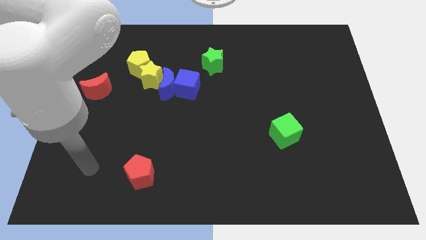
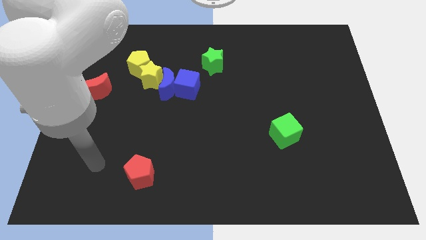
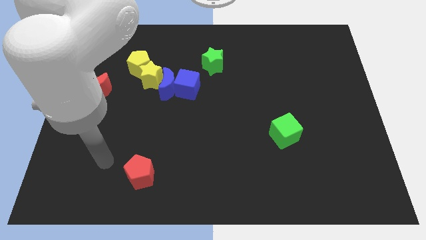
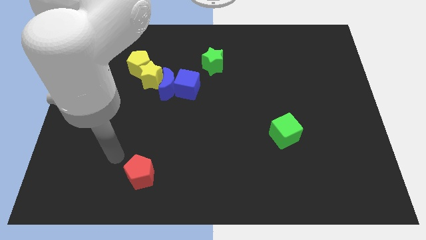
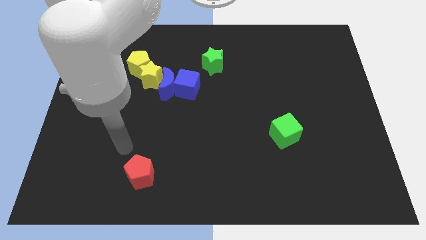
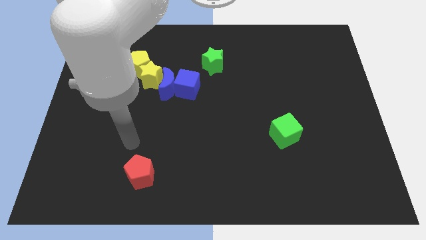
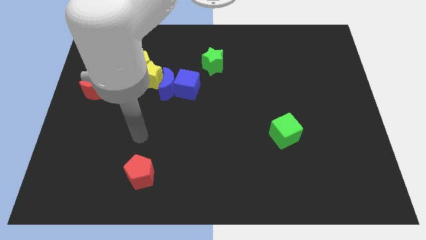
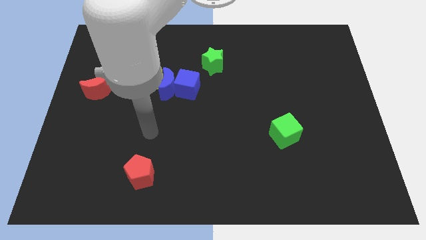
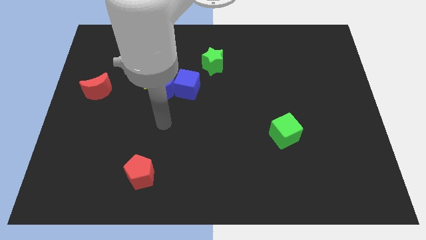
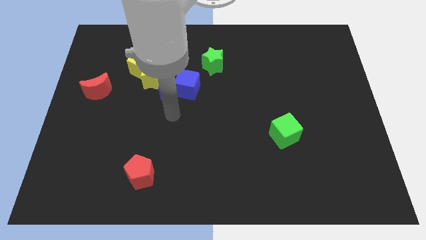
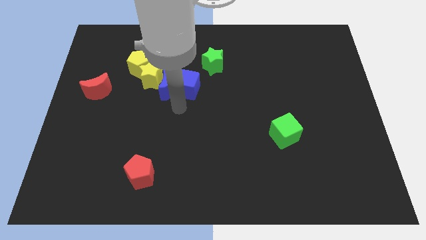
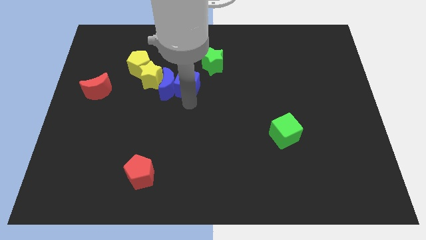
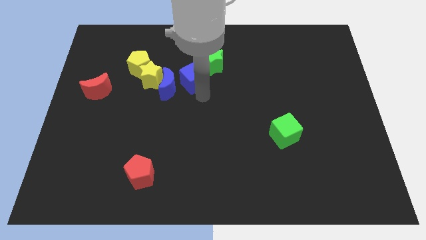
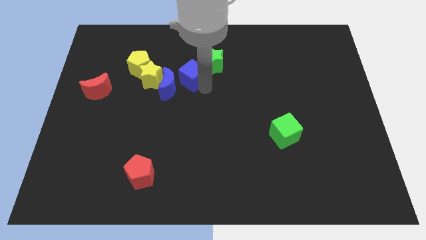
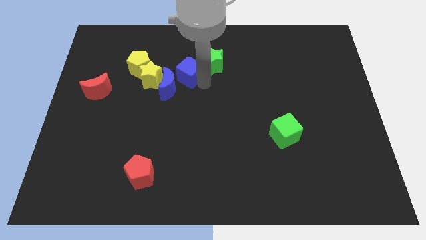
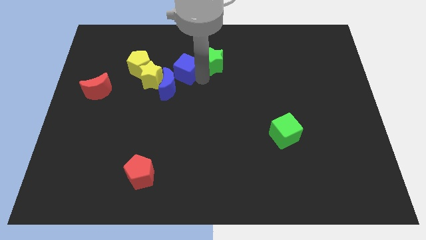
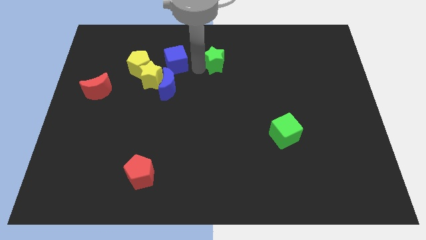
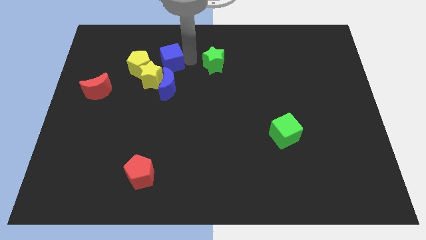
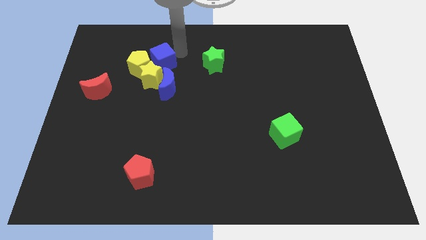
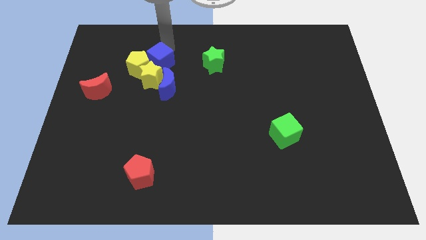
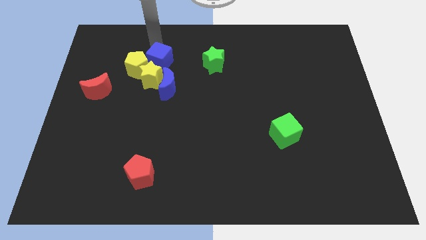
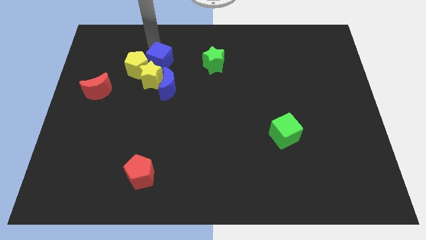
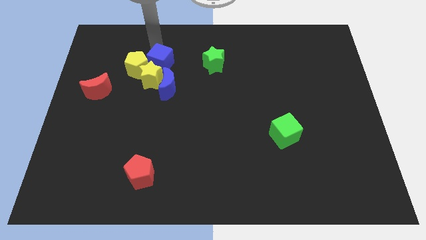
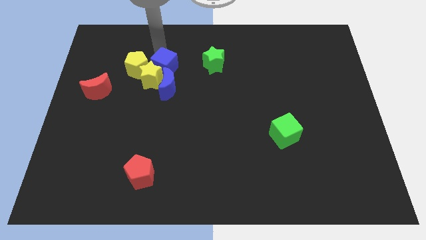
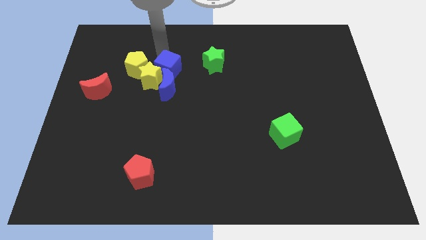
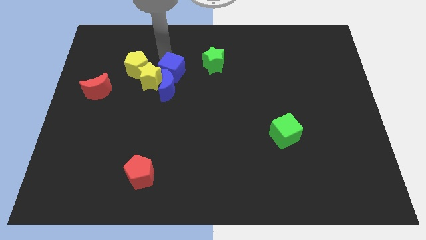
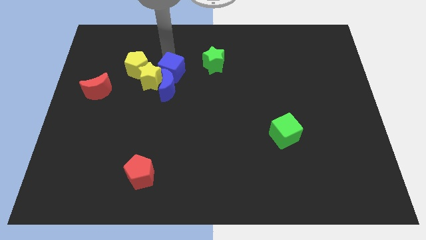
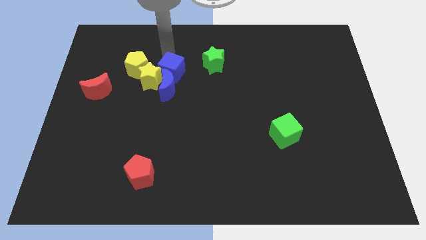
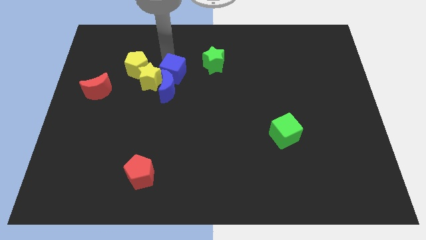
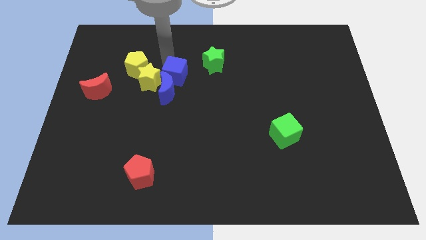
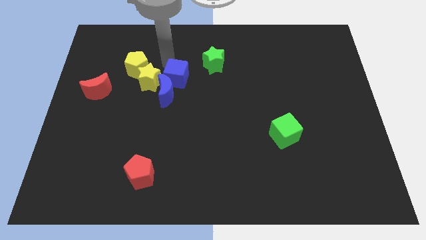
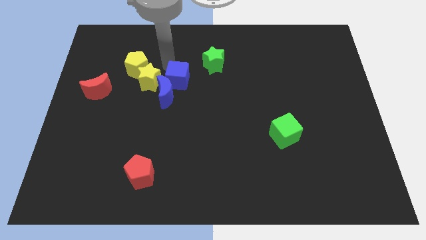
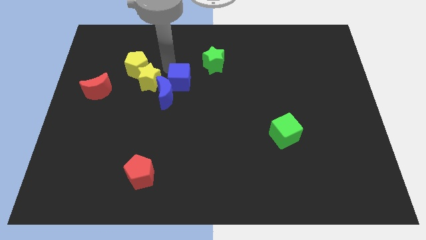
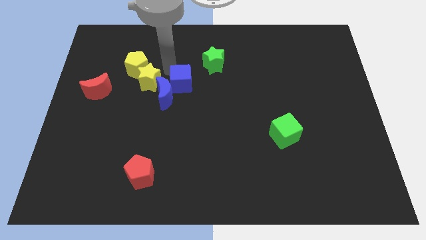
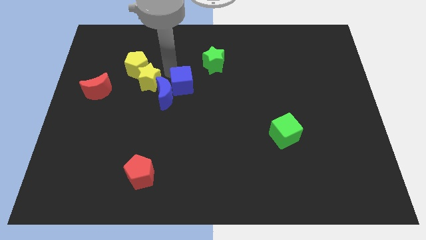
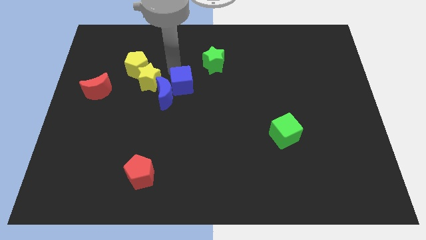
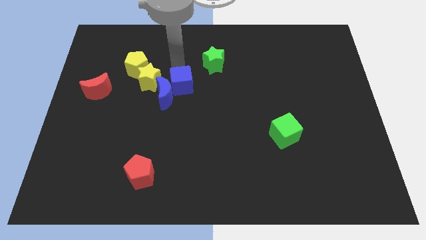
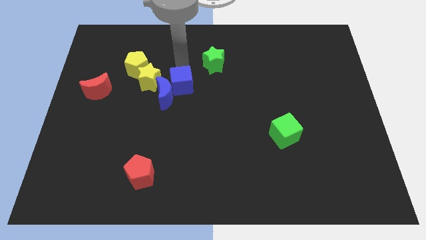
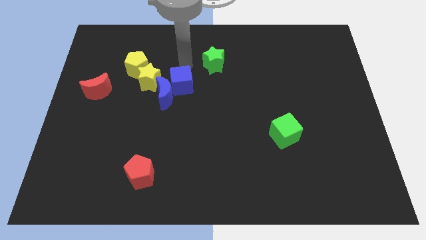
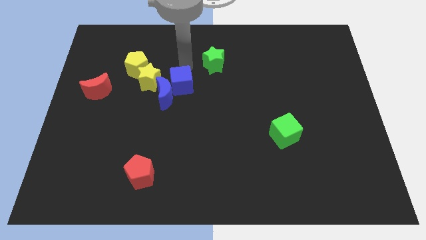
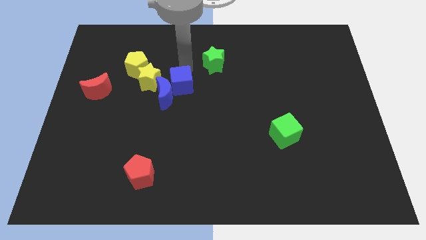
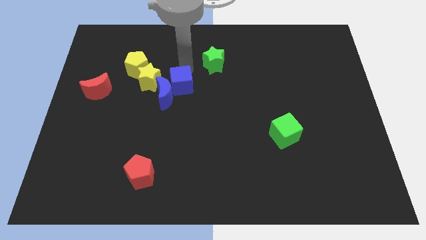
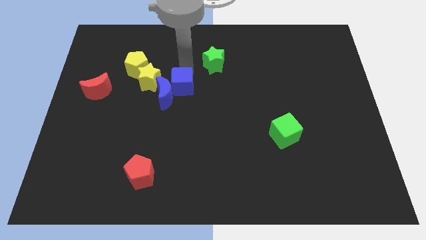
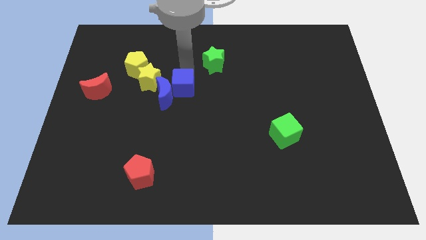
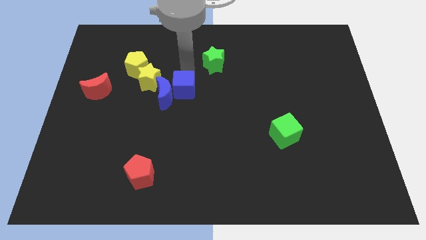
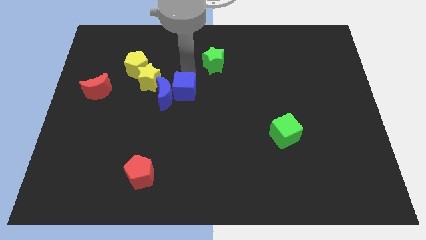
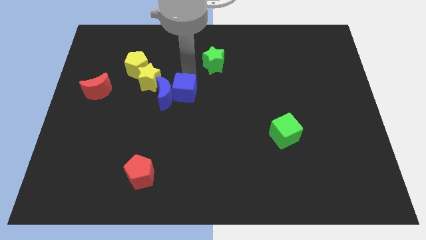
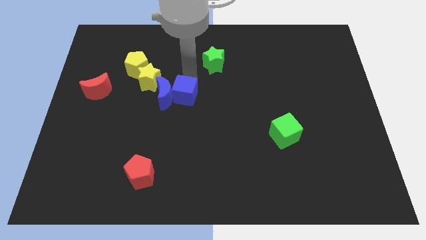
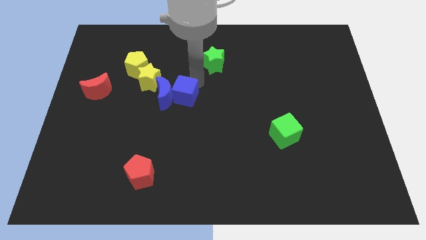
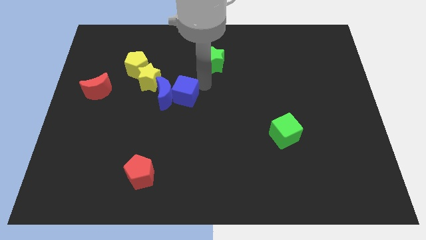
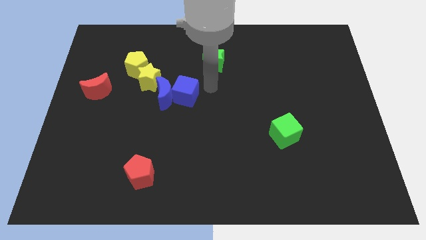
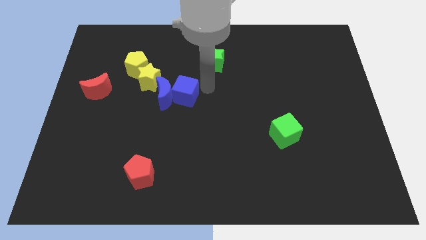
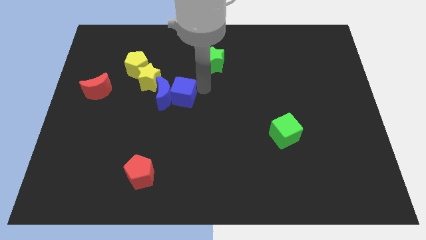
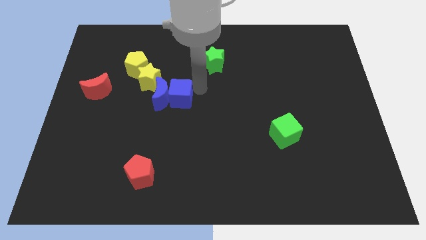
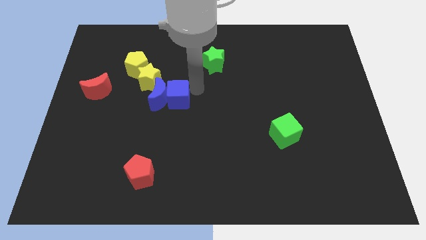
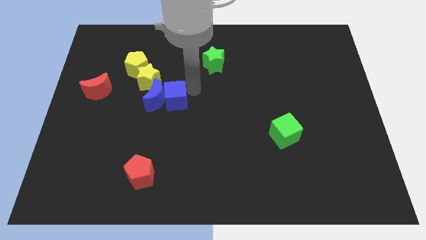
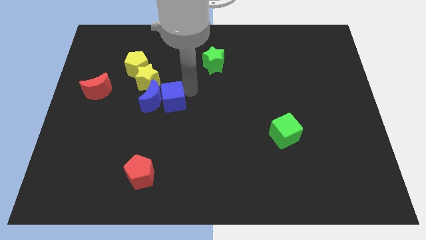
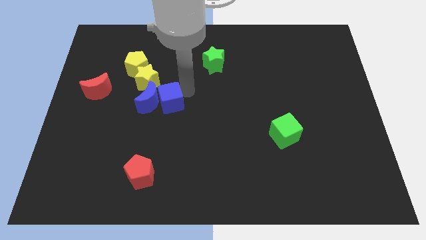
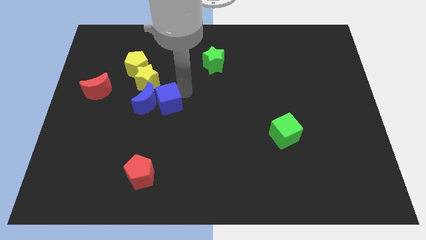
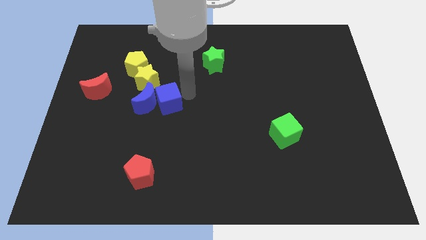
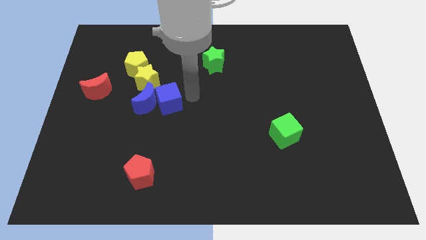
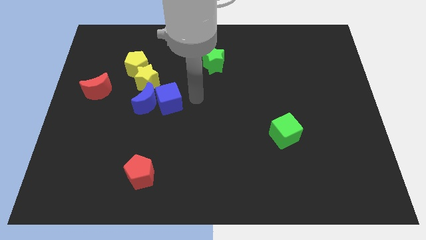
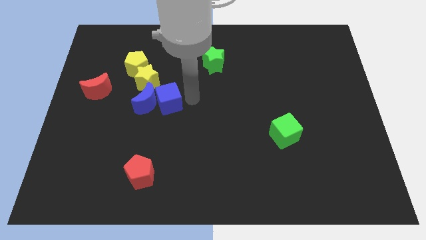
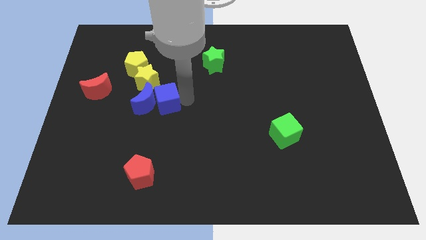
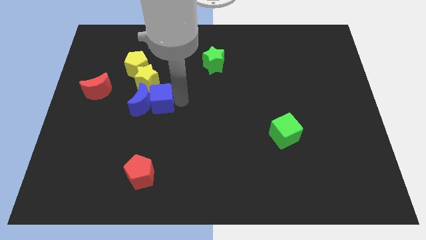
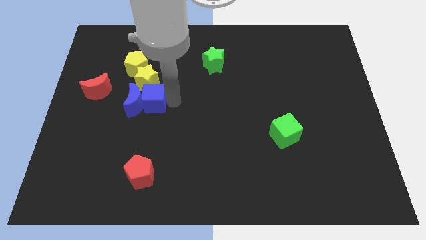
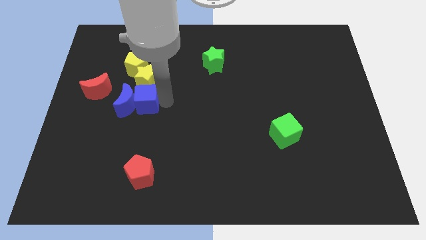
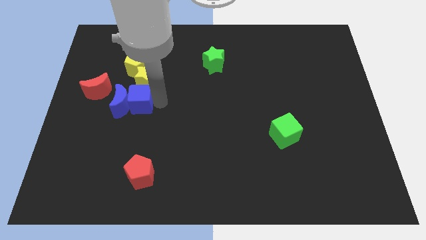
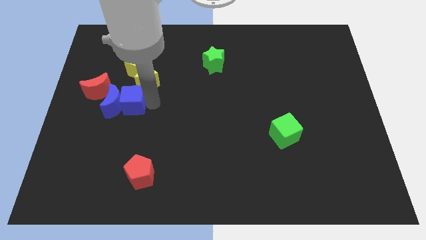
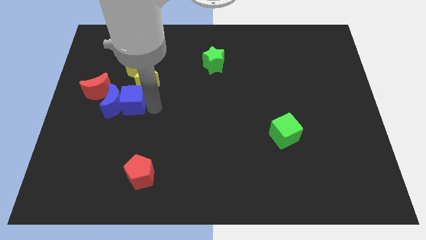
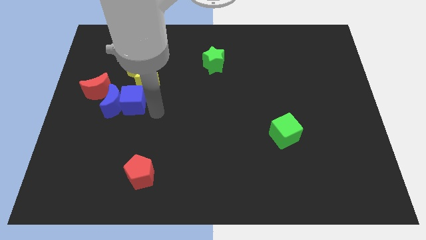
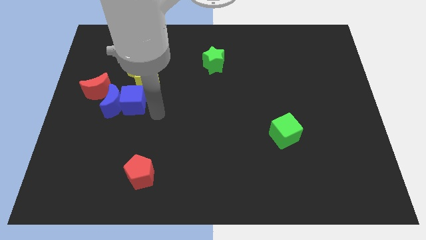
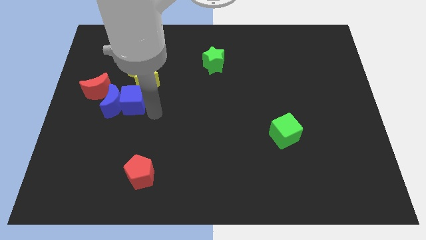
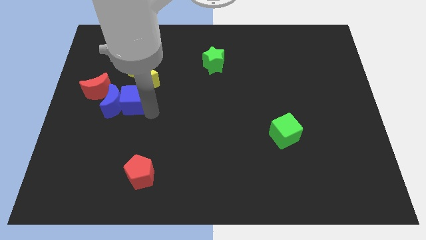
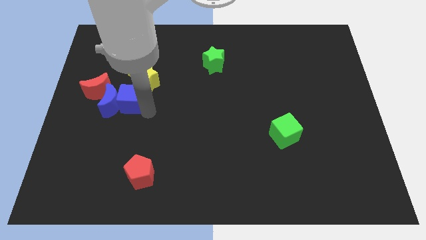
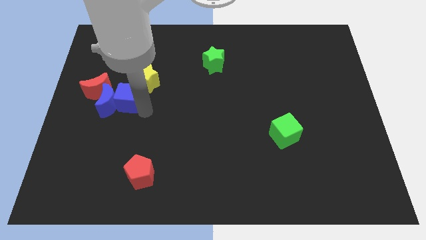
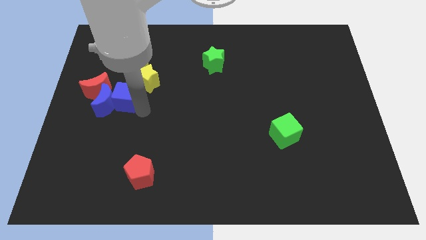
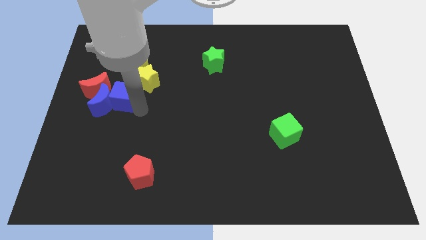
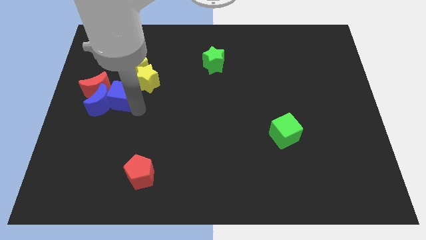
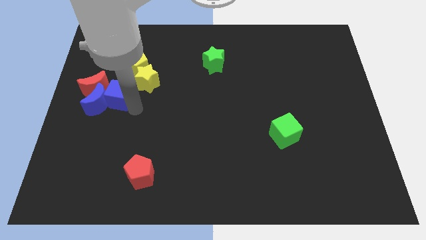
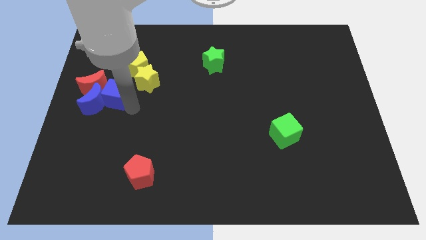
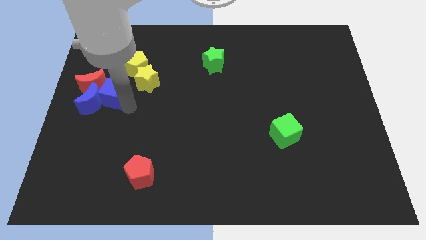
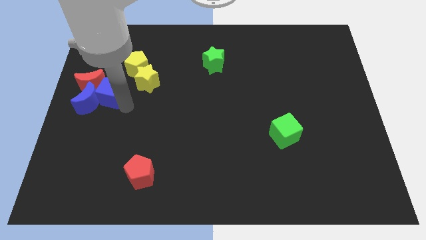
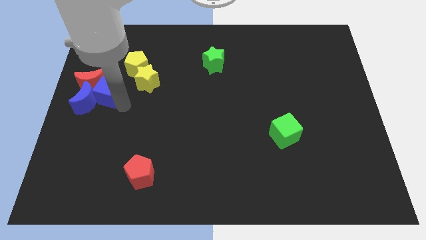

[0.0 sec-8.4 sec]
slide the blue cube to the red moon
